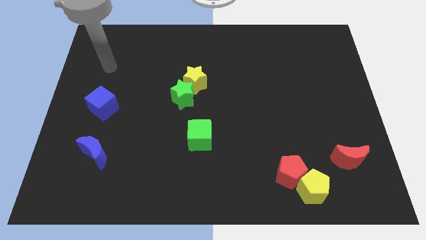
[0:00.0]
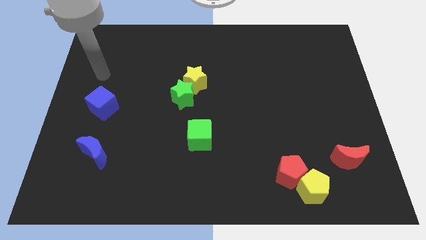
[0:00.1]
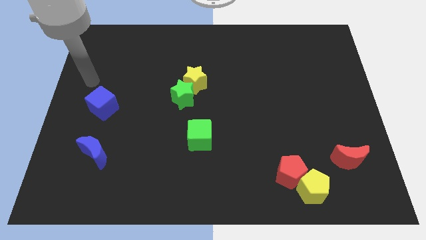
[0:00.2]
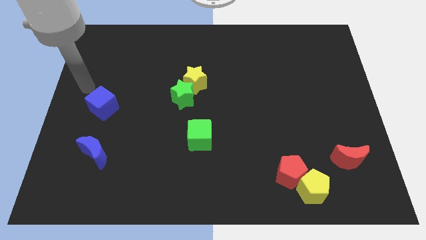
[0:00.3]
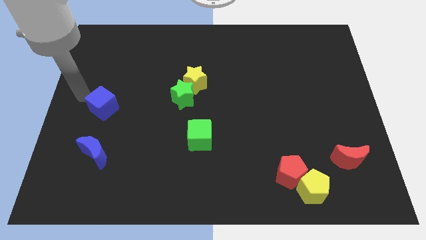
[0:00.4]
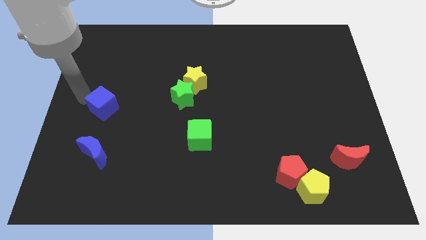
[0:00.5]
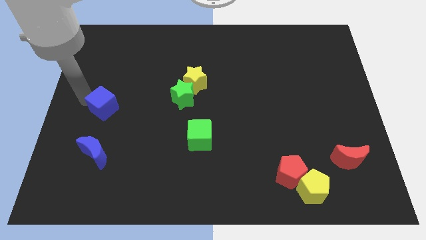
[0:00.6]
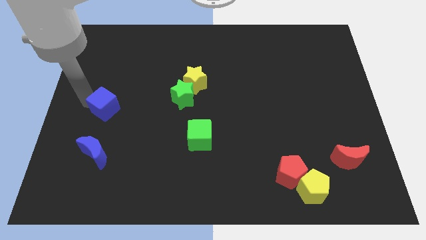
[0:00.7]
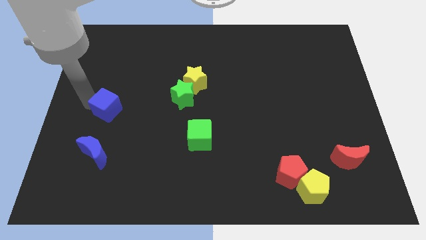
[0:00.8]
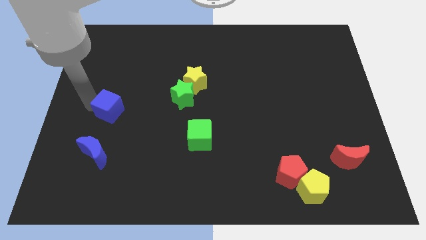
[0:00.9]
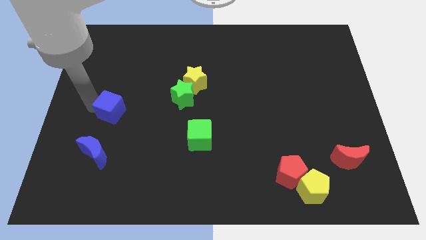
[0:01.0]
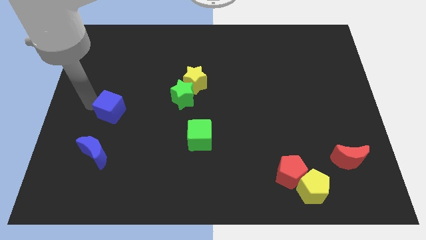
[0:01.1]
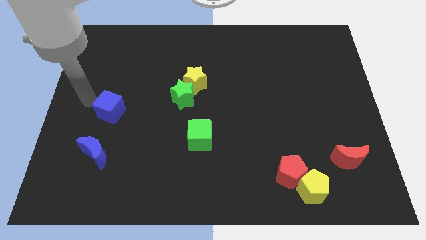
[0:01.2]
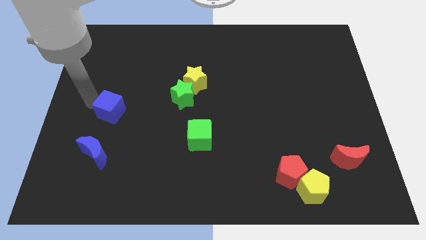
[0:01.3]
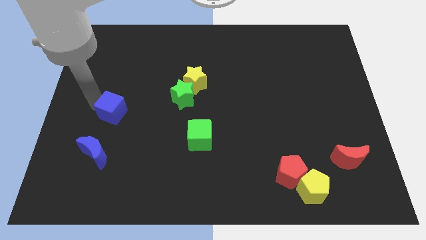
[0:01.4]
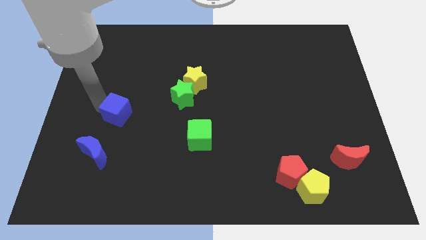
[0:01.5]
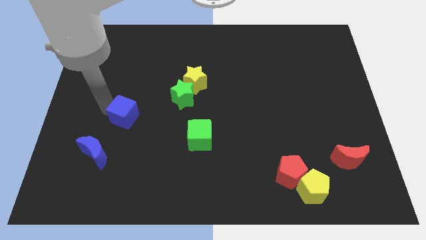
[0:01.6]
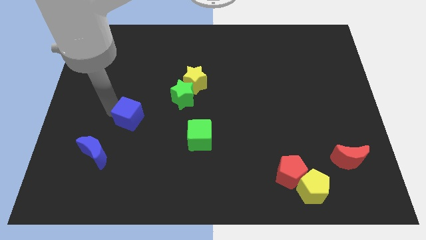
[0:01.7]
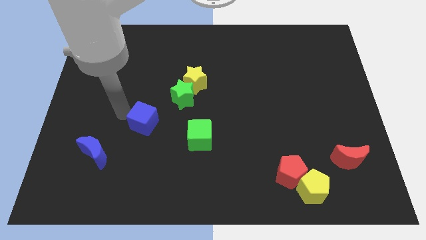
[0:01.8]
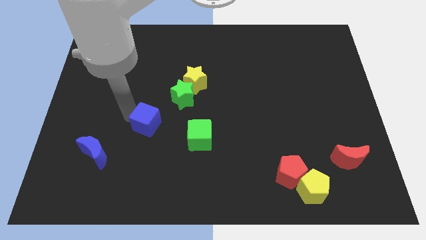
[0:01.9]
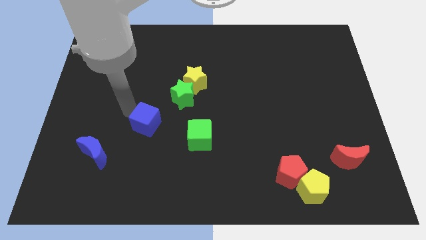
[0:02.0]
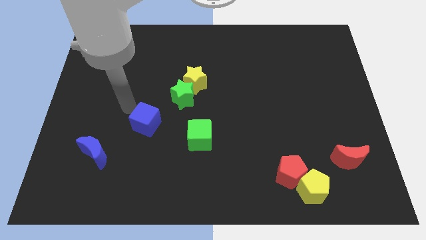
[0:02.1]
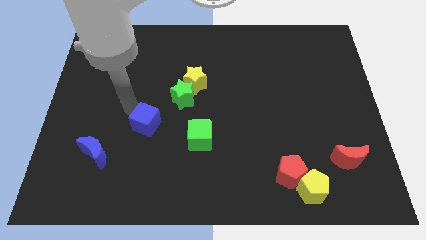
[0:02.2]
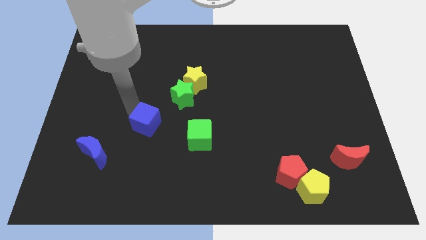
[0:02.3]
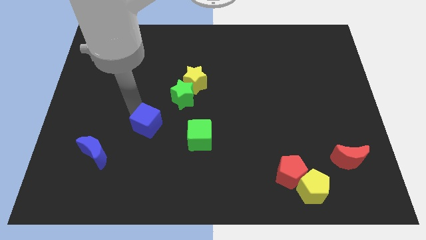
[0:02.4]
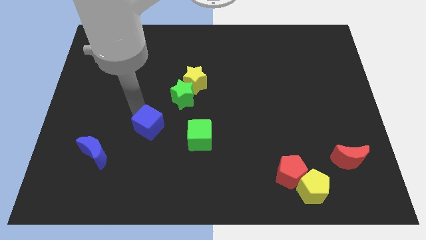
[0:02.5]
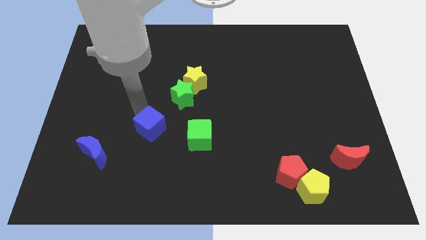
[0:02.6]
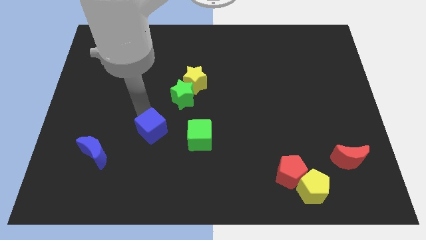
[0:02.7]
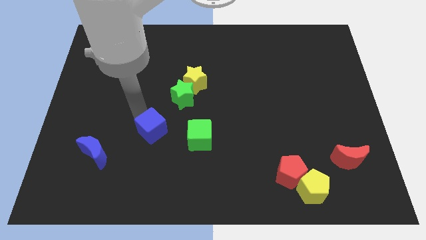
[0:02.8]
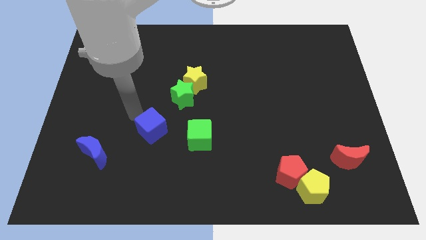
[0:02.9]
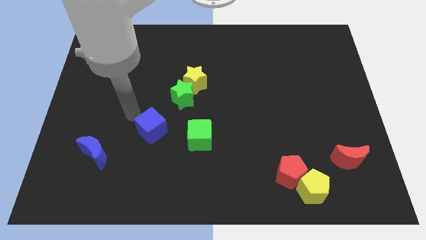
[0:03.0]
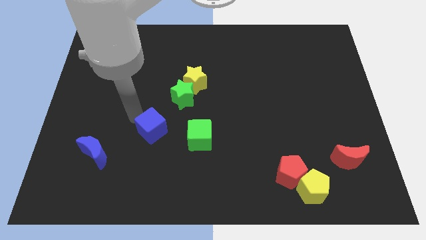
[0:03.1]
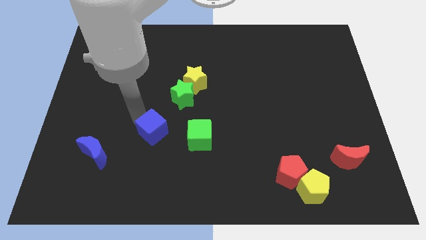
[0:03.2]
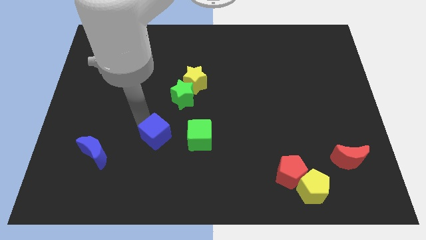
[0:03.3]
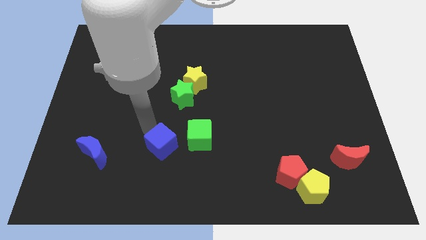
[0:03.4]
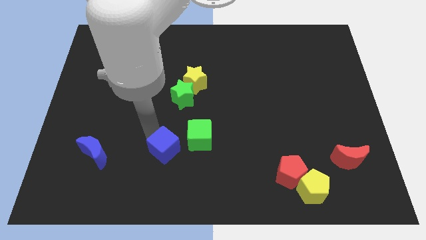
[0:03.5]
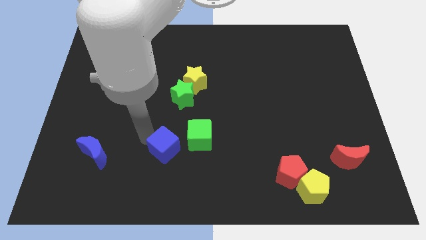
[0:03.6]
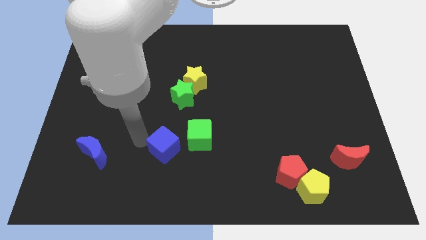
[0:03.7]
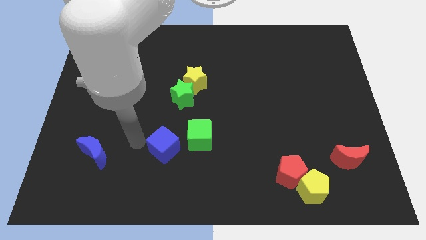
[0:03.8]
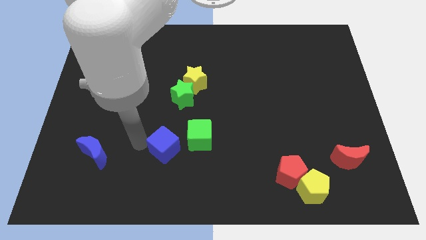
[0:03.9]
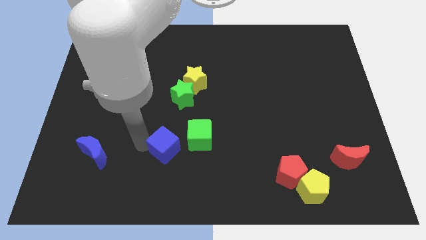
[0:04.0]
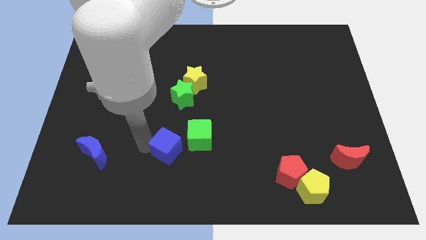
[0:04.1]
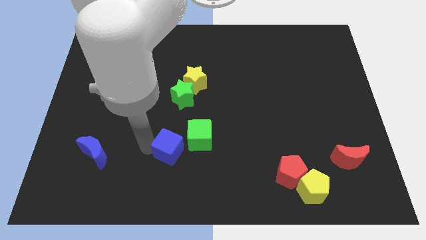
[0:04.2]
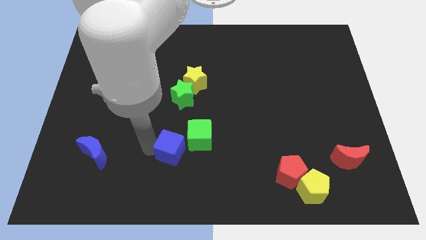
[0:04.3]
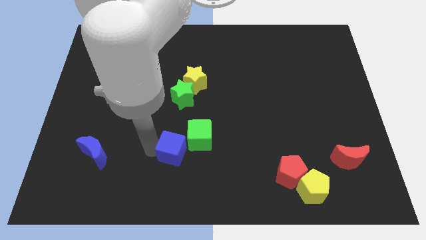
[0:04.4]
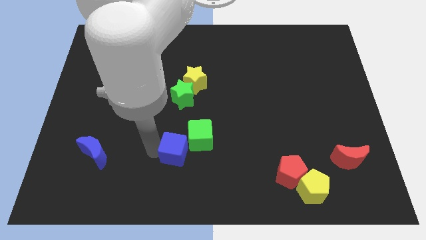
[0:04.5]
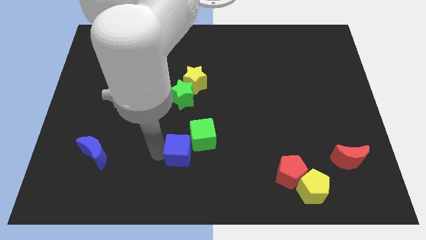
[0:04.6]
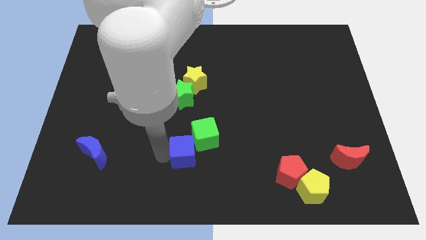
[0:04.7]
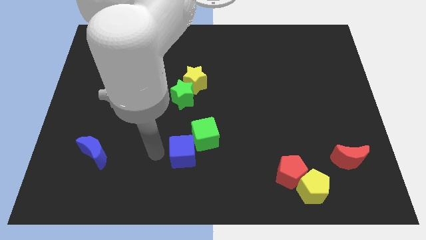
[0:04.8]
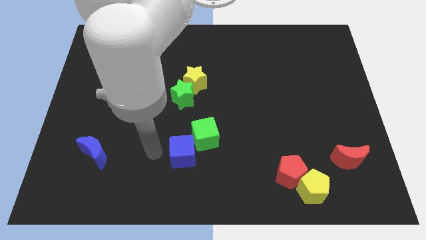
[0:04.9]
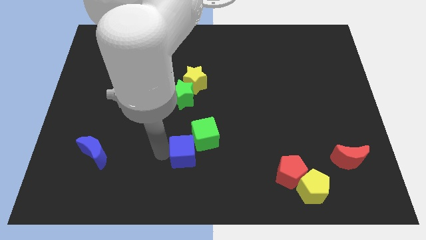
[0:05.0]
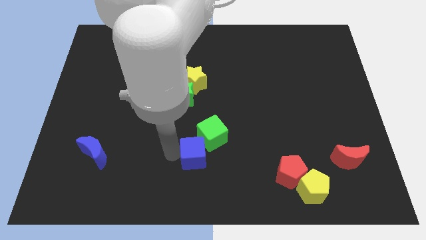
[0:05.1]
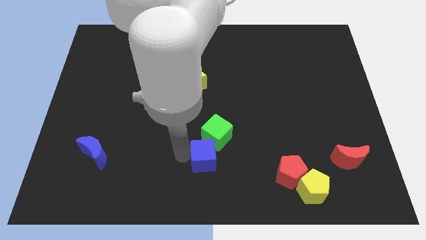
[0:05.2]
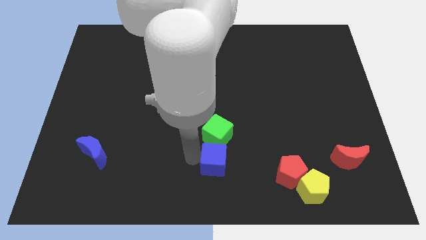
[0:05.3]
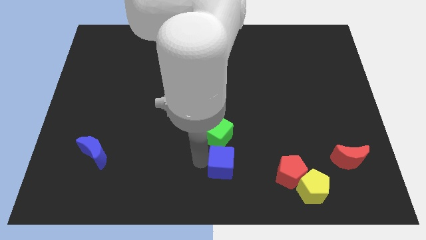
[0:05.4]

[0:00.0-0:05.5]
push the blue cube diagonally down and to the right of the green cube

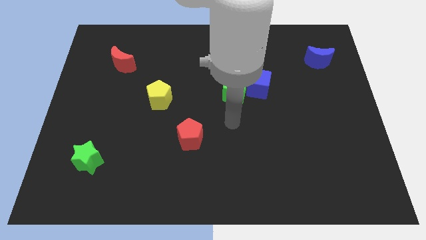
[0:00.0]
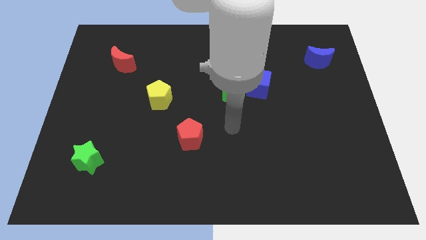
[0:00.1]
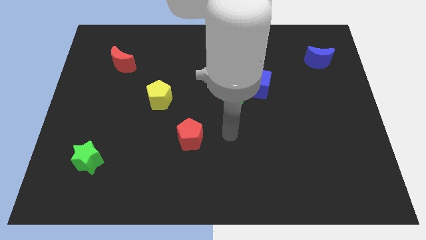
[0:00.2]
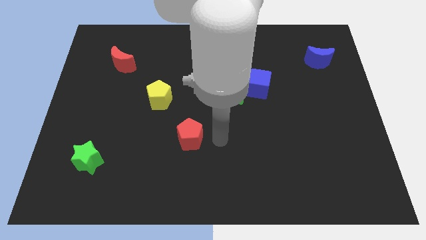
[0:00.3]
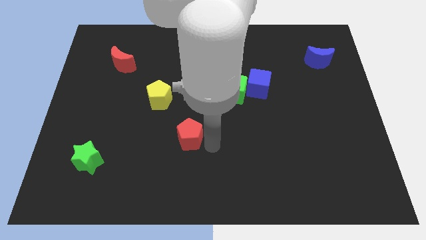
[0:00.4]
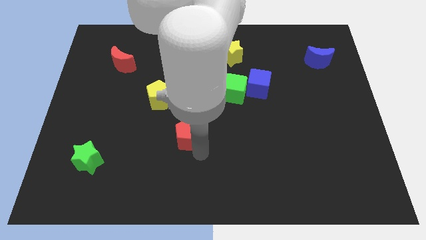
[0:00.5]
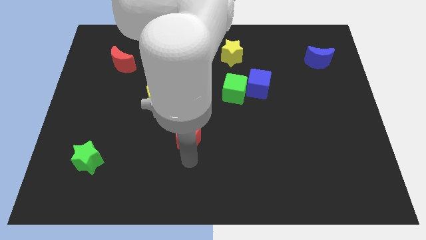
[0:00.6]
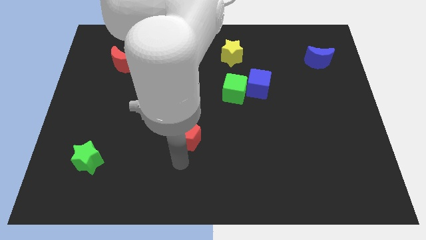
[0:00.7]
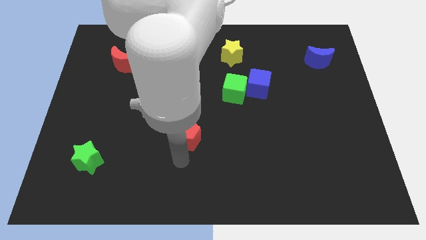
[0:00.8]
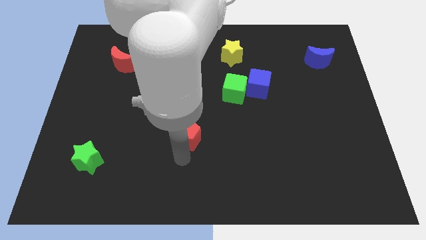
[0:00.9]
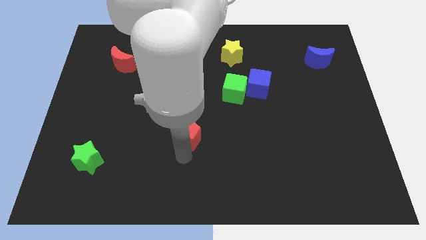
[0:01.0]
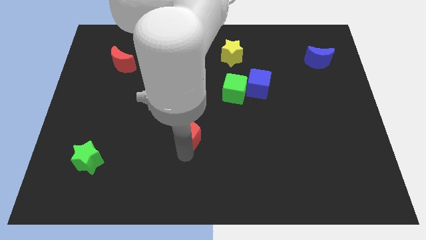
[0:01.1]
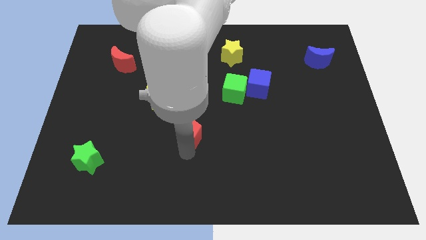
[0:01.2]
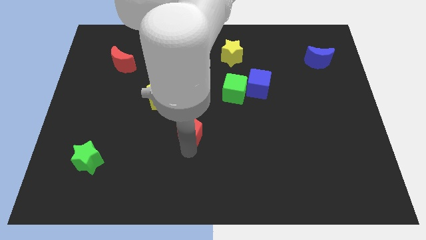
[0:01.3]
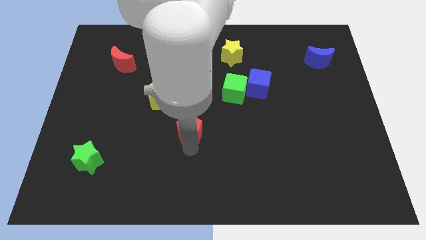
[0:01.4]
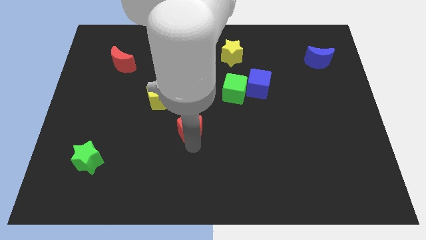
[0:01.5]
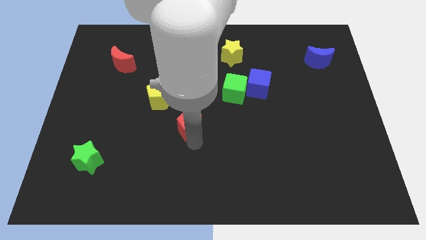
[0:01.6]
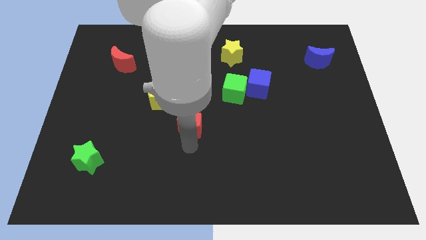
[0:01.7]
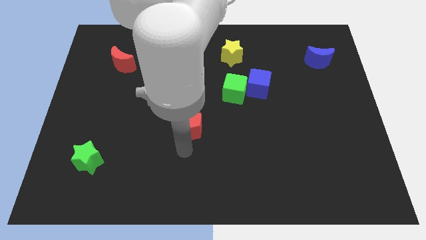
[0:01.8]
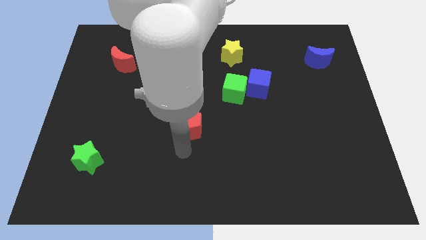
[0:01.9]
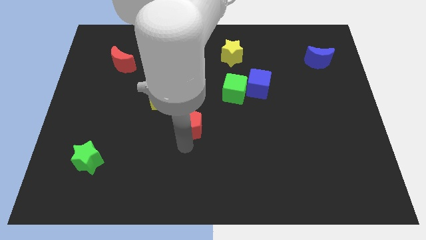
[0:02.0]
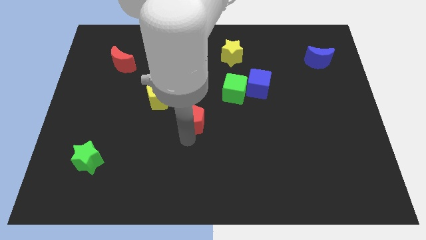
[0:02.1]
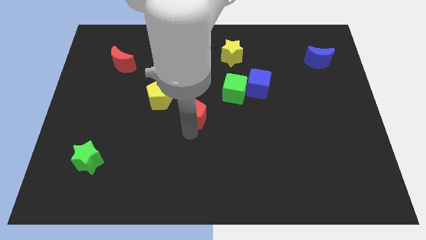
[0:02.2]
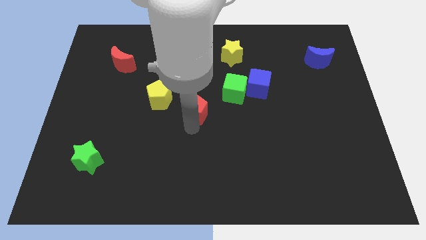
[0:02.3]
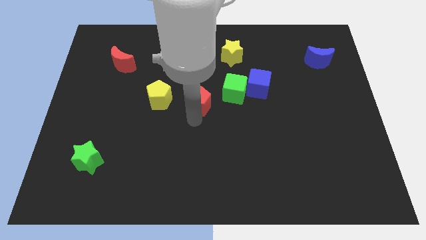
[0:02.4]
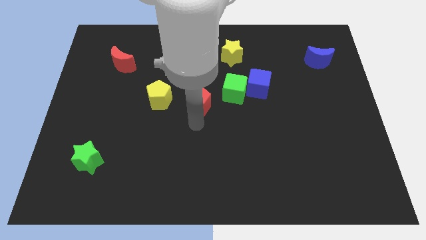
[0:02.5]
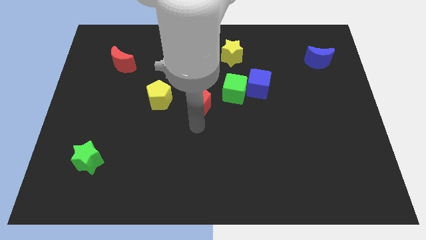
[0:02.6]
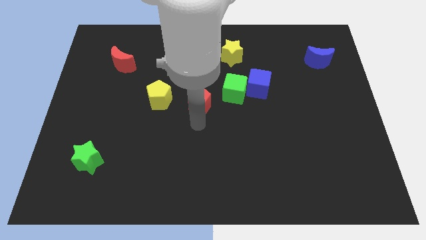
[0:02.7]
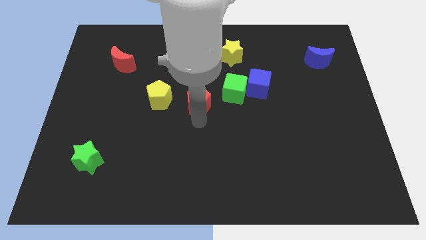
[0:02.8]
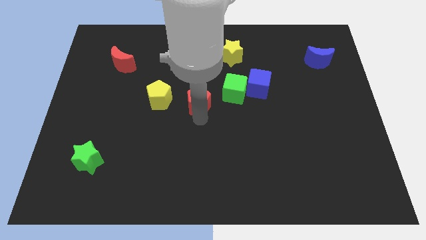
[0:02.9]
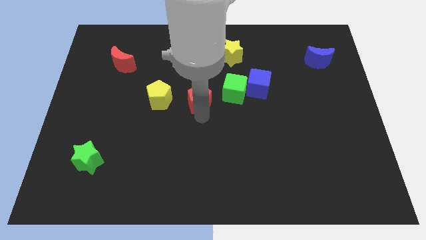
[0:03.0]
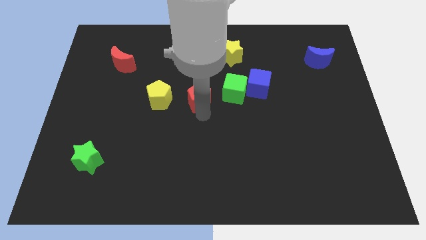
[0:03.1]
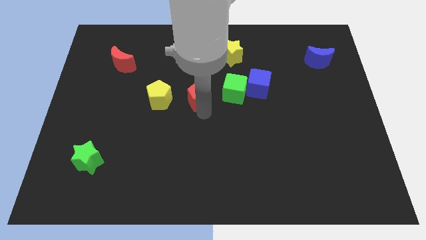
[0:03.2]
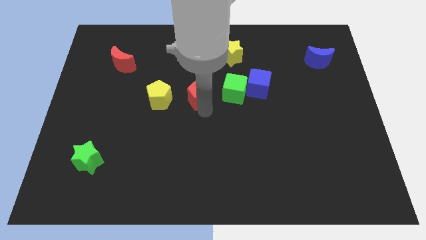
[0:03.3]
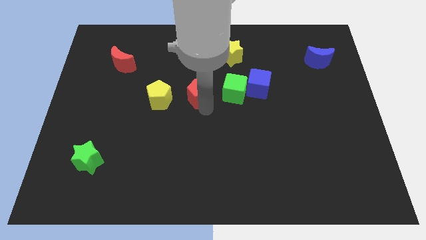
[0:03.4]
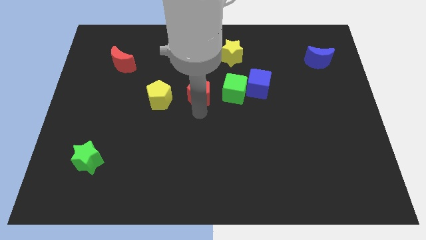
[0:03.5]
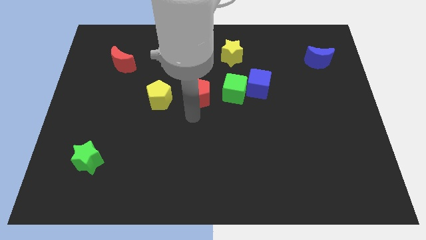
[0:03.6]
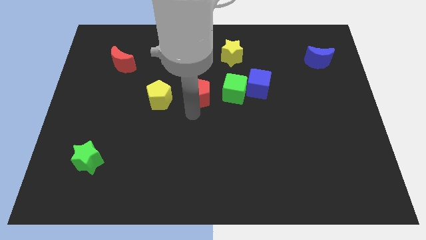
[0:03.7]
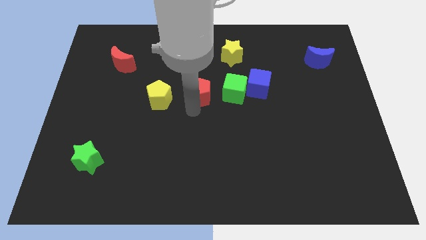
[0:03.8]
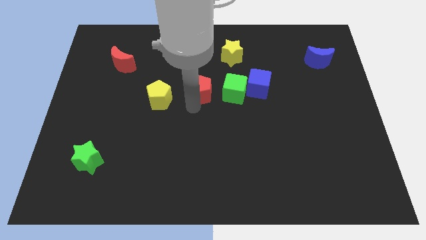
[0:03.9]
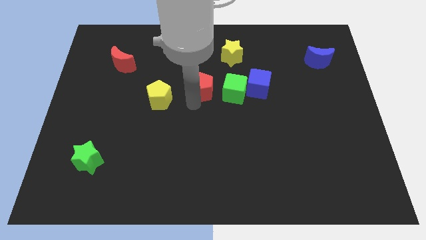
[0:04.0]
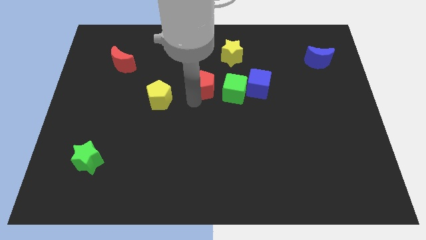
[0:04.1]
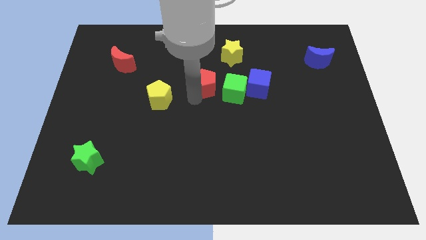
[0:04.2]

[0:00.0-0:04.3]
push the red pentagon to the bottom left side of the yellow star
